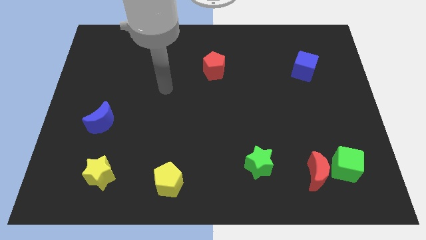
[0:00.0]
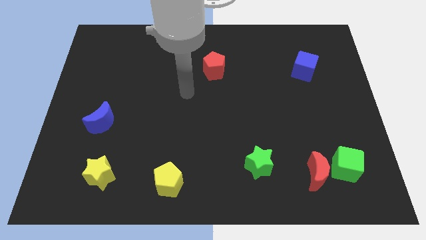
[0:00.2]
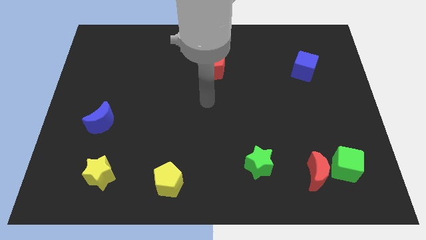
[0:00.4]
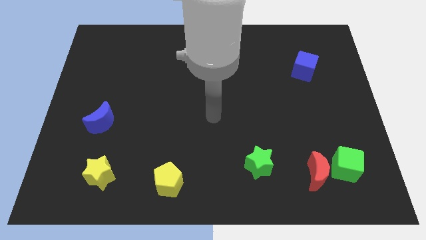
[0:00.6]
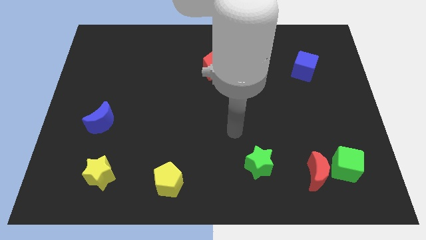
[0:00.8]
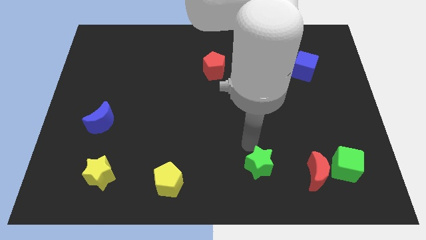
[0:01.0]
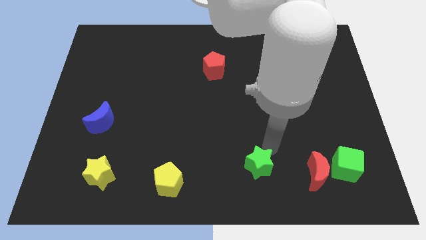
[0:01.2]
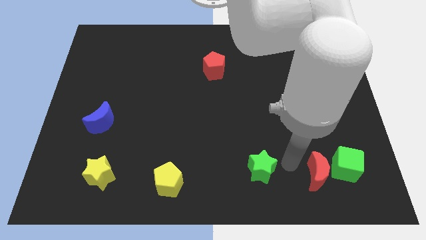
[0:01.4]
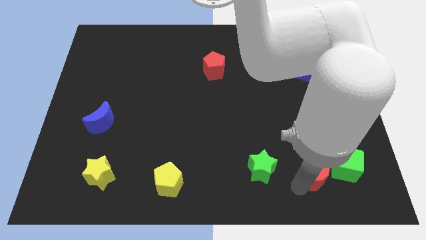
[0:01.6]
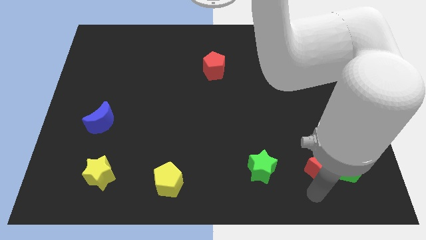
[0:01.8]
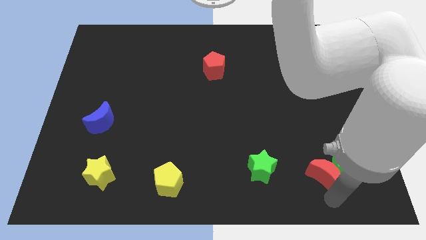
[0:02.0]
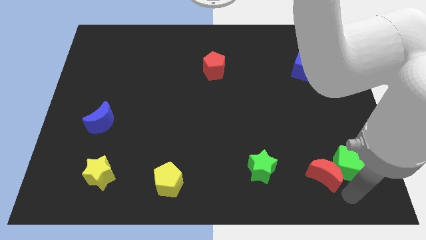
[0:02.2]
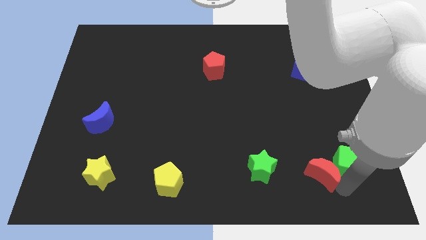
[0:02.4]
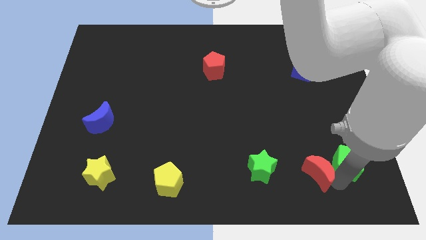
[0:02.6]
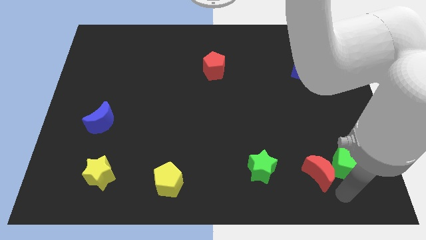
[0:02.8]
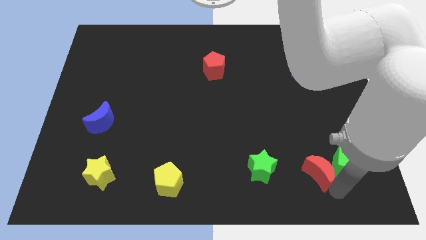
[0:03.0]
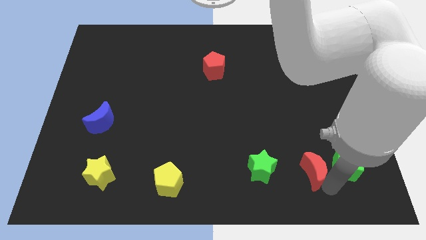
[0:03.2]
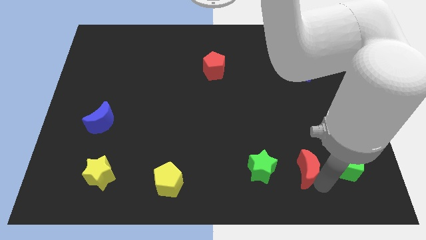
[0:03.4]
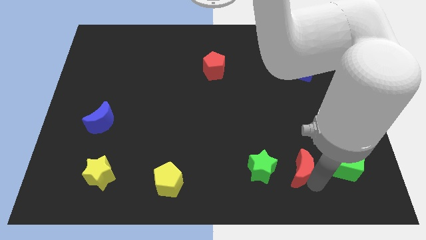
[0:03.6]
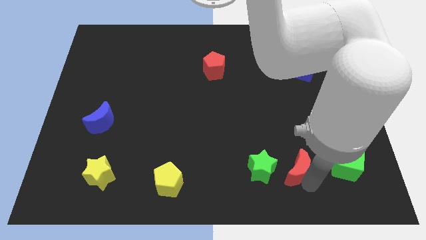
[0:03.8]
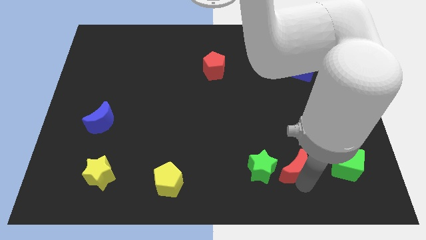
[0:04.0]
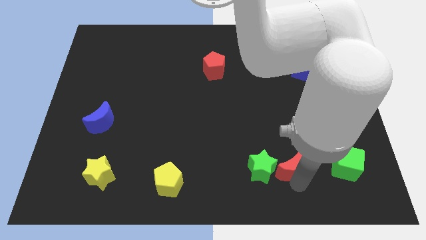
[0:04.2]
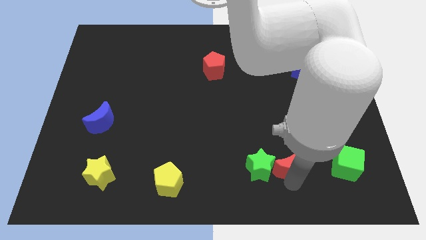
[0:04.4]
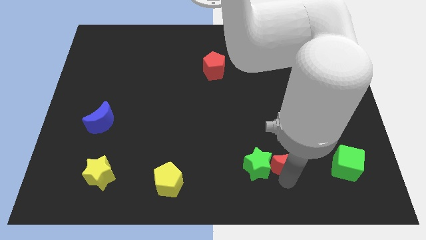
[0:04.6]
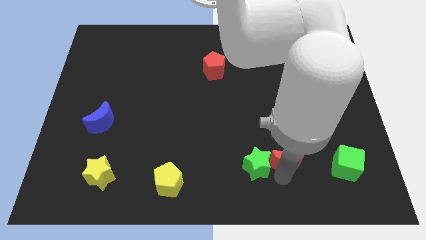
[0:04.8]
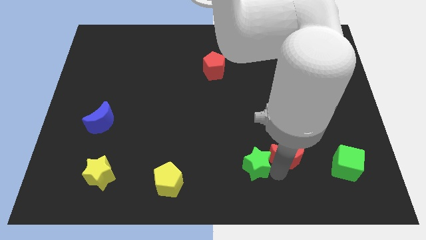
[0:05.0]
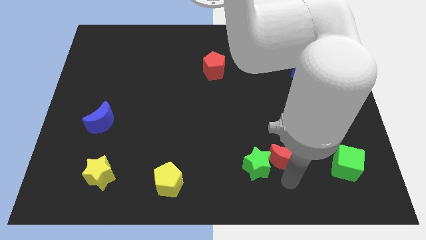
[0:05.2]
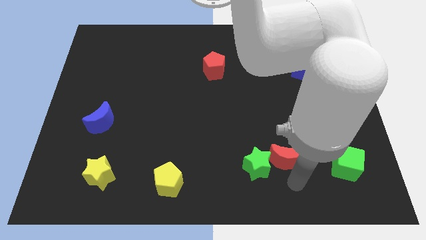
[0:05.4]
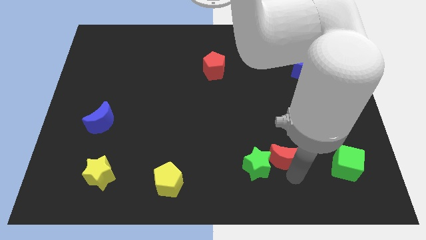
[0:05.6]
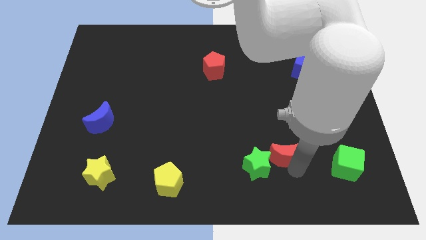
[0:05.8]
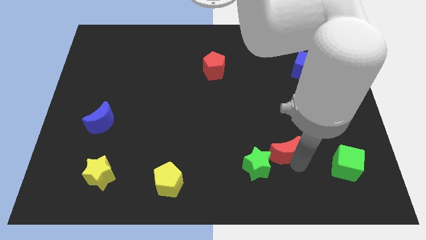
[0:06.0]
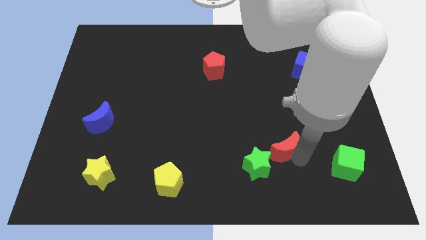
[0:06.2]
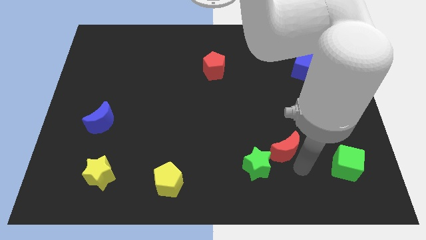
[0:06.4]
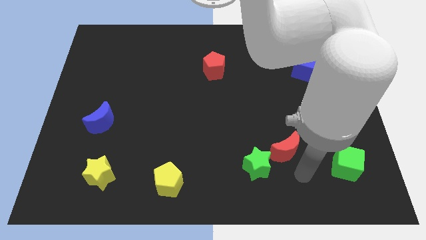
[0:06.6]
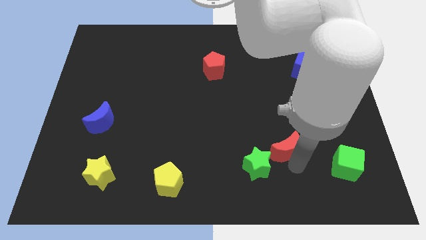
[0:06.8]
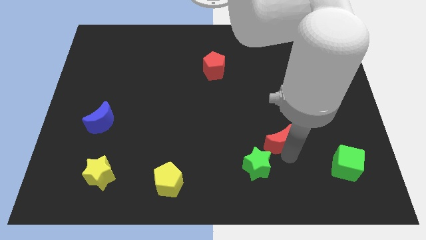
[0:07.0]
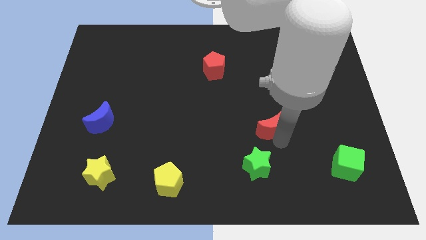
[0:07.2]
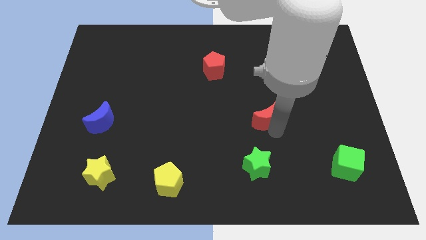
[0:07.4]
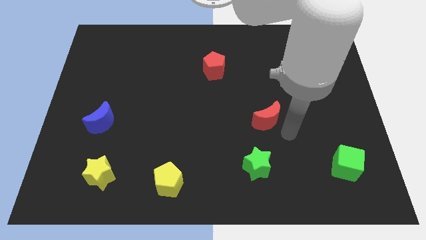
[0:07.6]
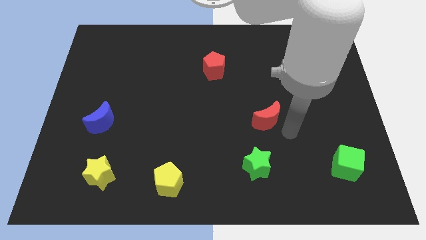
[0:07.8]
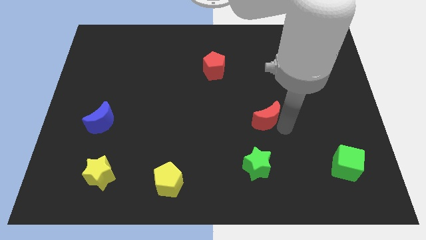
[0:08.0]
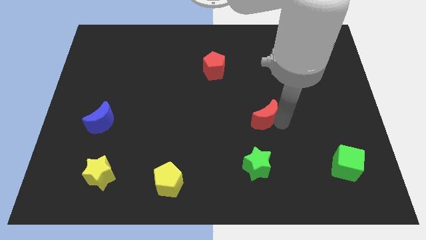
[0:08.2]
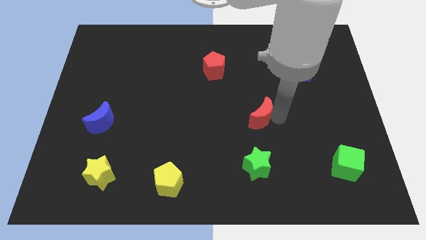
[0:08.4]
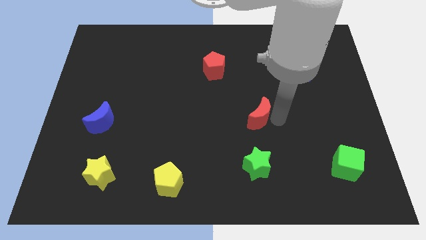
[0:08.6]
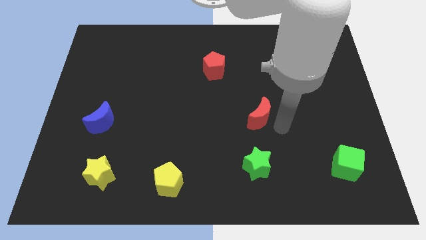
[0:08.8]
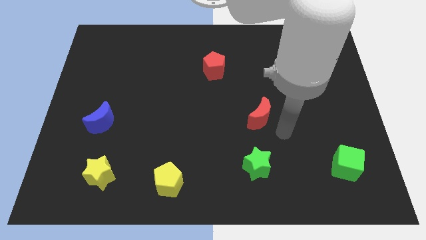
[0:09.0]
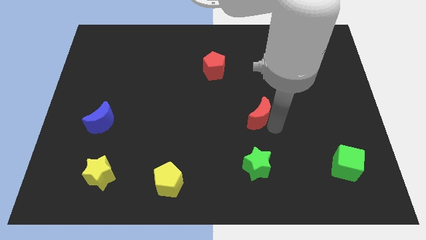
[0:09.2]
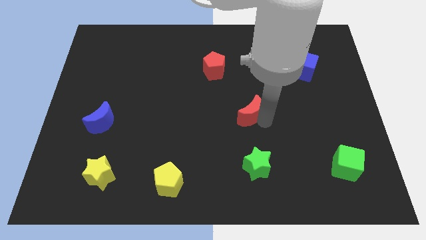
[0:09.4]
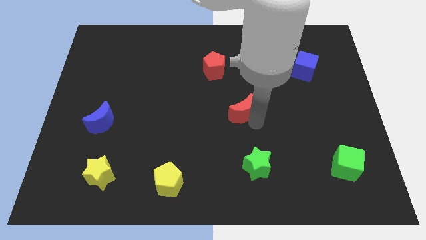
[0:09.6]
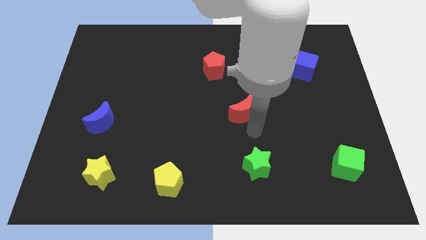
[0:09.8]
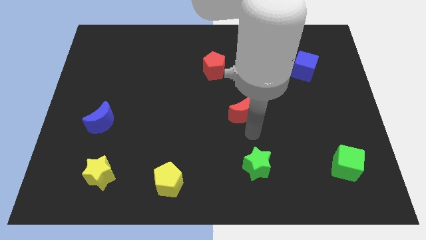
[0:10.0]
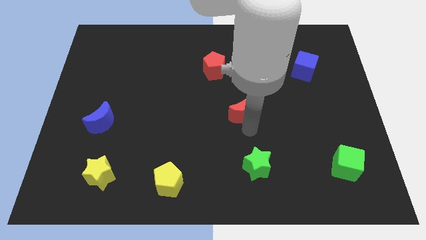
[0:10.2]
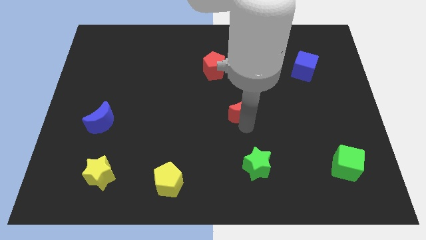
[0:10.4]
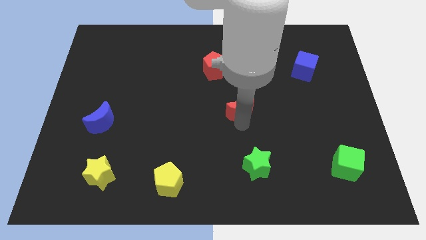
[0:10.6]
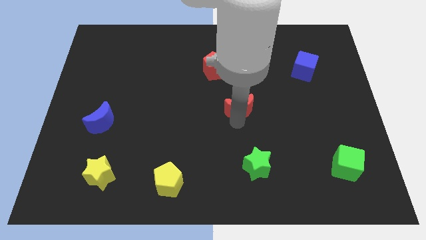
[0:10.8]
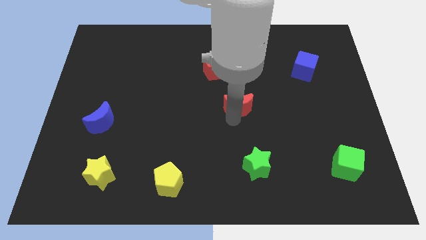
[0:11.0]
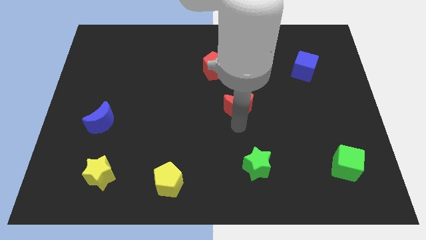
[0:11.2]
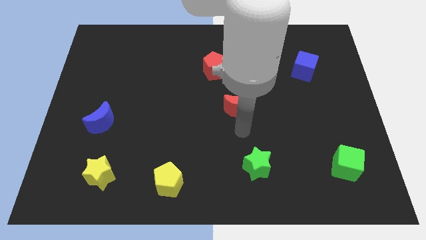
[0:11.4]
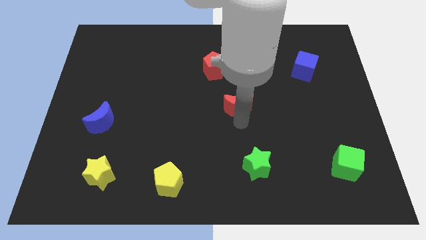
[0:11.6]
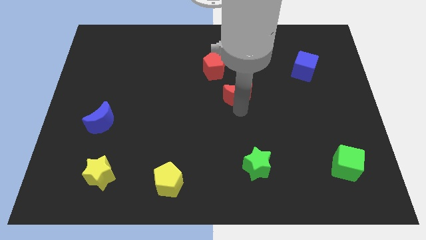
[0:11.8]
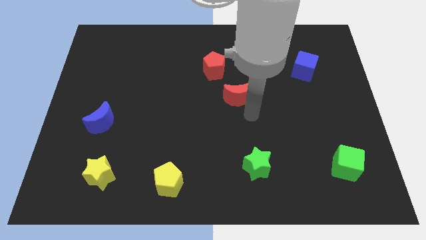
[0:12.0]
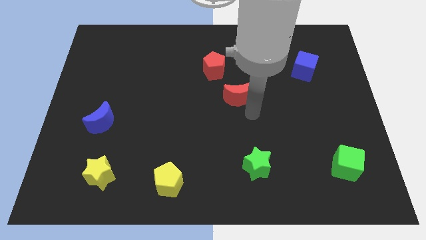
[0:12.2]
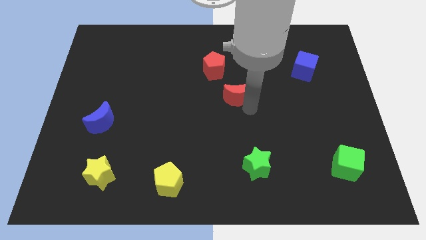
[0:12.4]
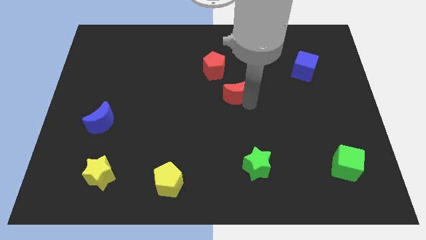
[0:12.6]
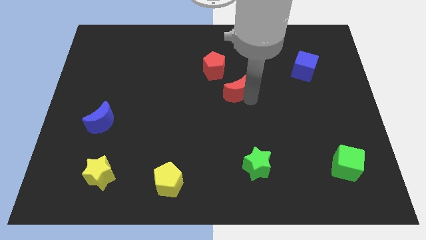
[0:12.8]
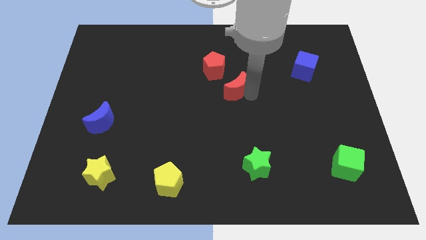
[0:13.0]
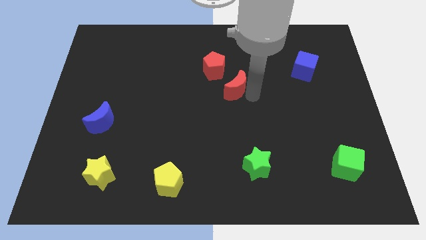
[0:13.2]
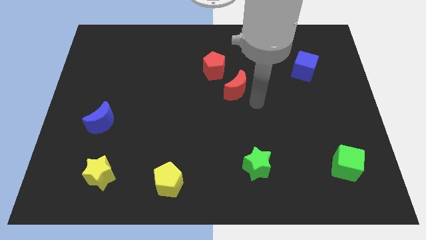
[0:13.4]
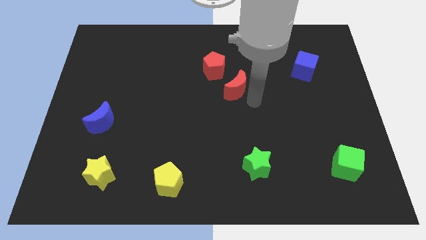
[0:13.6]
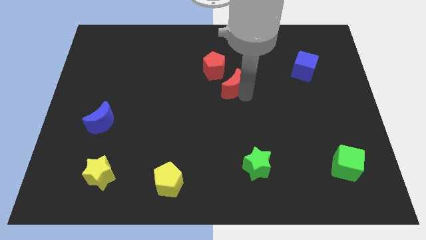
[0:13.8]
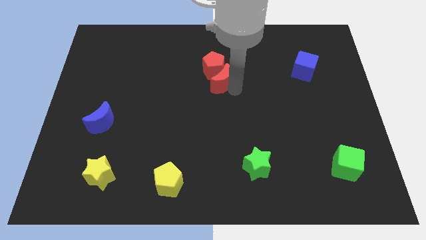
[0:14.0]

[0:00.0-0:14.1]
move the red moon close to the red pentagon
